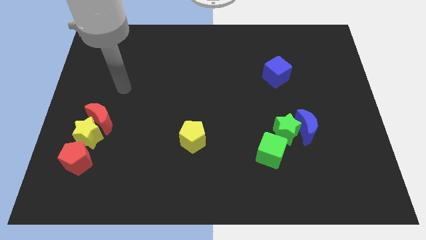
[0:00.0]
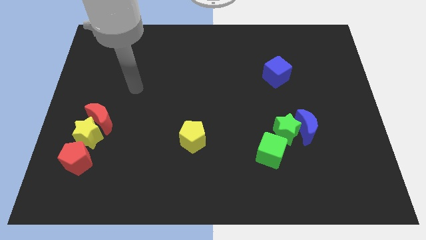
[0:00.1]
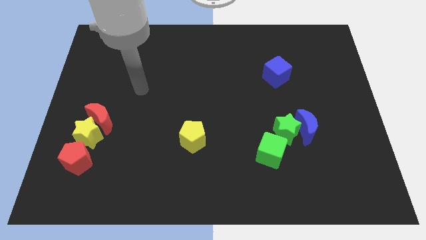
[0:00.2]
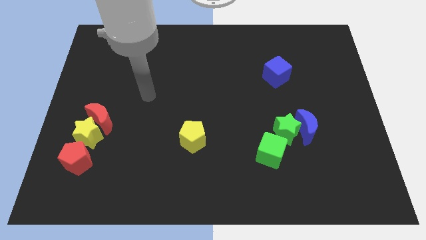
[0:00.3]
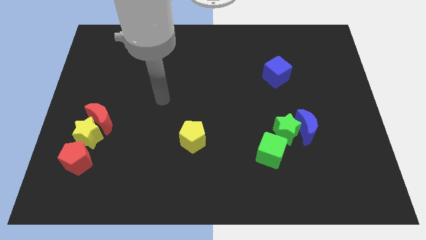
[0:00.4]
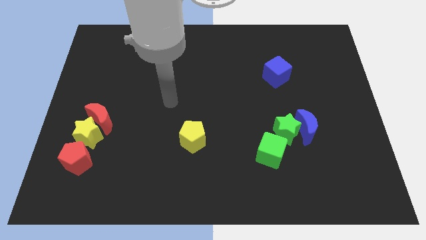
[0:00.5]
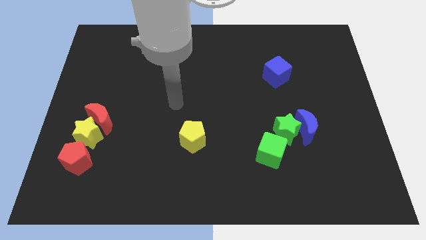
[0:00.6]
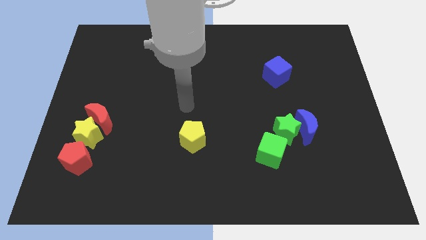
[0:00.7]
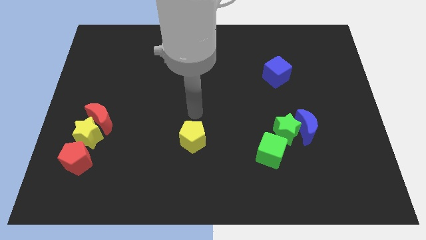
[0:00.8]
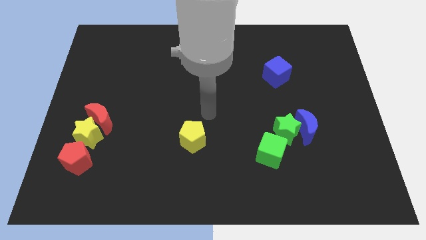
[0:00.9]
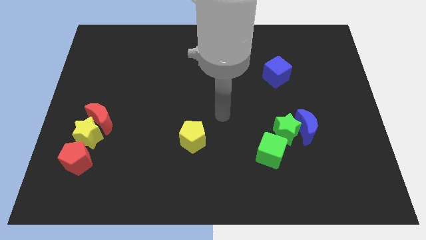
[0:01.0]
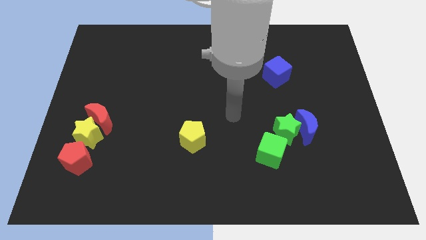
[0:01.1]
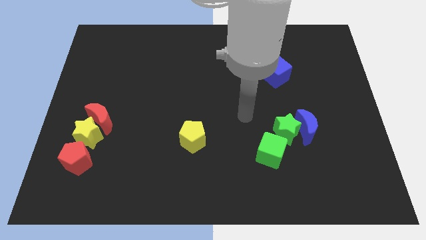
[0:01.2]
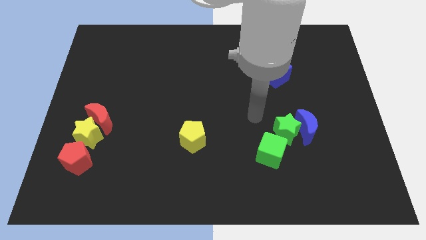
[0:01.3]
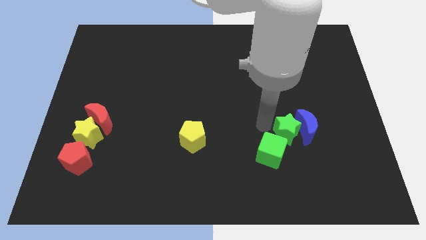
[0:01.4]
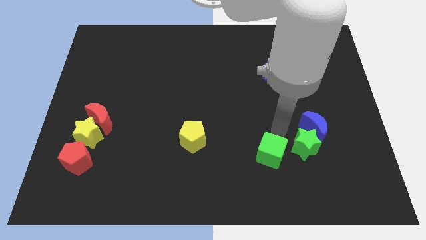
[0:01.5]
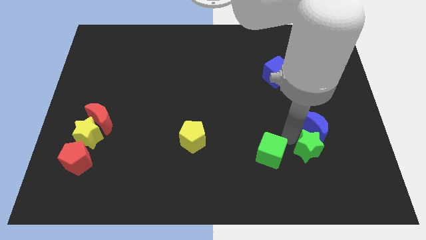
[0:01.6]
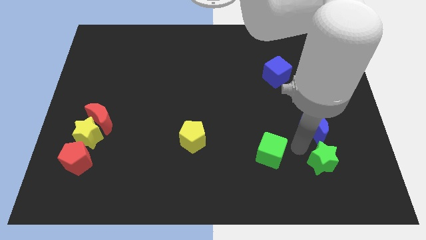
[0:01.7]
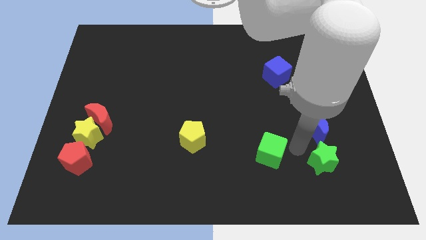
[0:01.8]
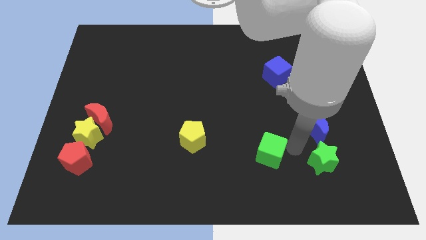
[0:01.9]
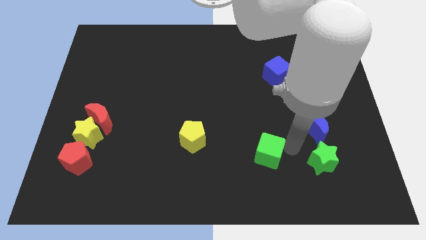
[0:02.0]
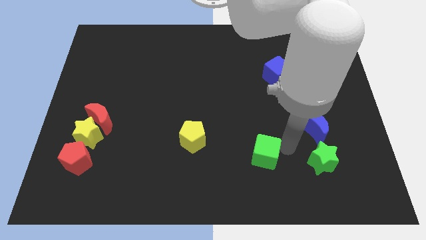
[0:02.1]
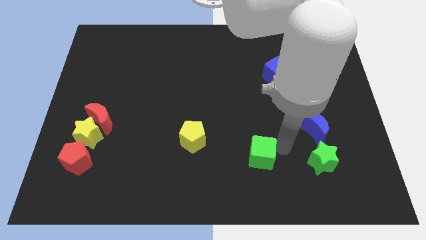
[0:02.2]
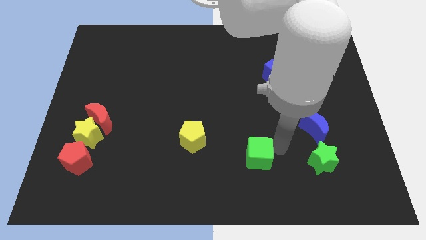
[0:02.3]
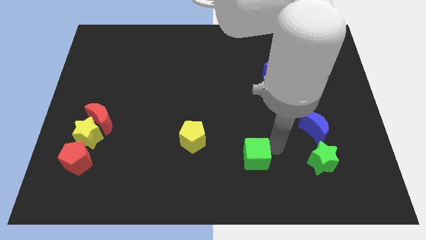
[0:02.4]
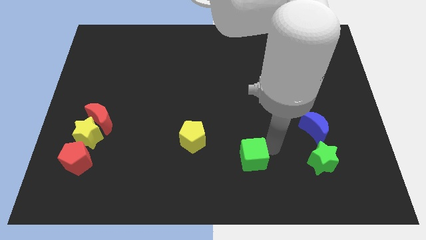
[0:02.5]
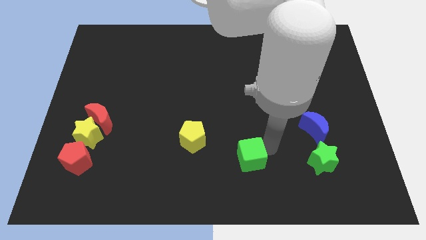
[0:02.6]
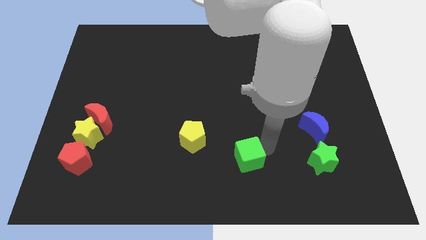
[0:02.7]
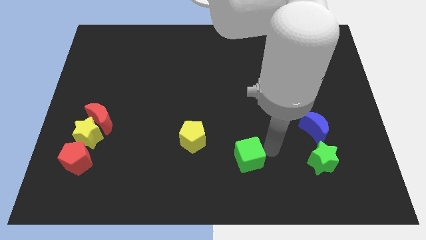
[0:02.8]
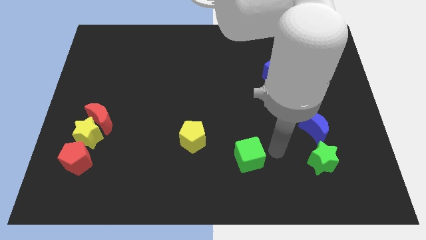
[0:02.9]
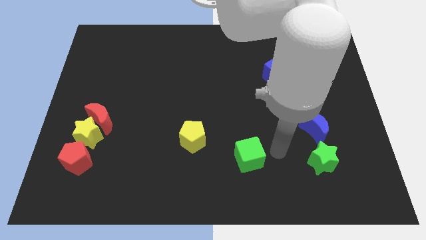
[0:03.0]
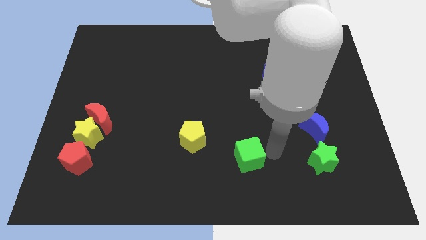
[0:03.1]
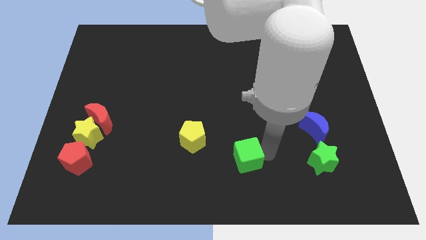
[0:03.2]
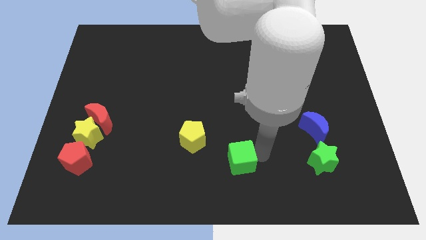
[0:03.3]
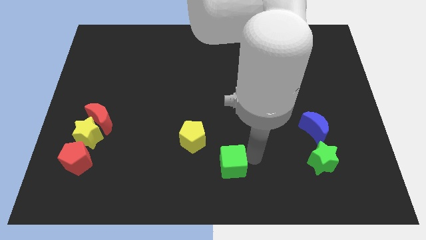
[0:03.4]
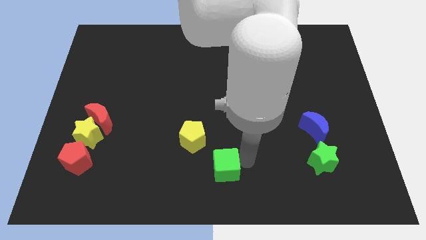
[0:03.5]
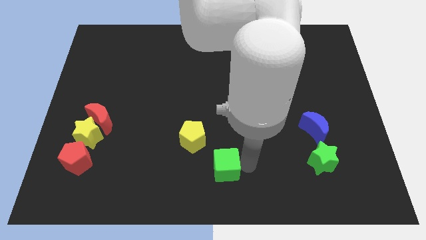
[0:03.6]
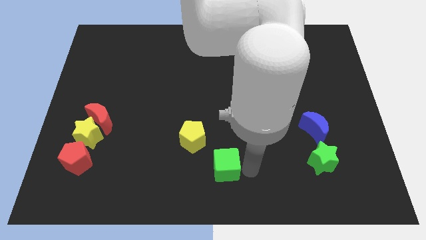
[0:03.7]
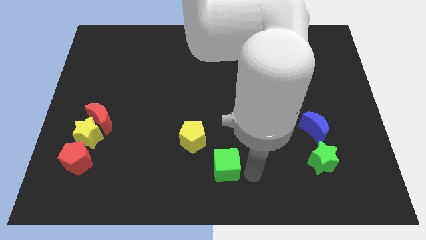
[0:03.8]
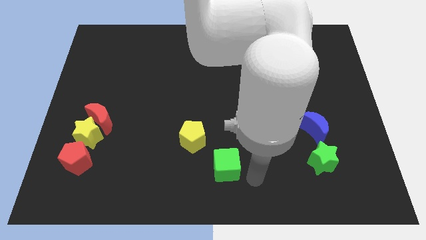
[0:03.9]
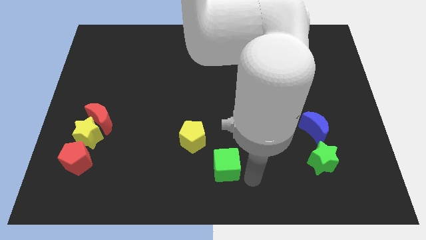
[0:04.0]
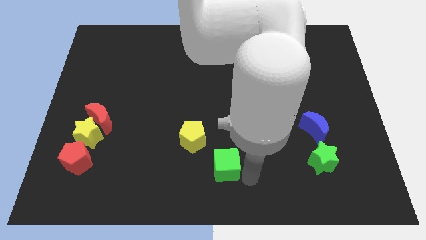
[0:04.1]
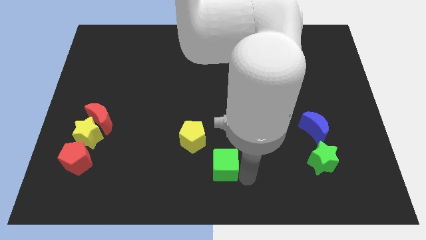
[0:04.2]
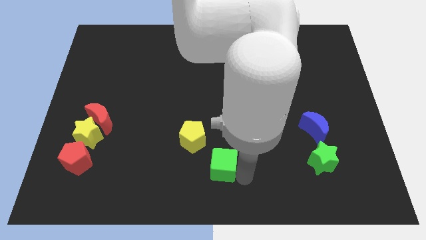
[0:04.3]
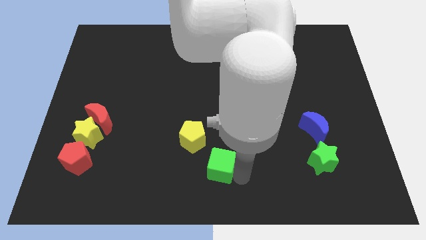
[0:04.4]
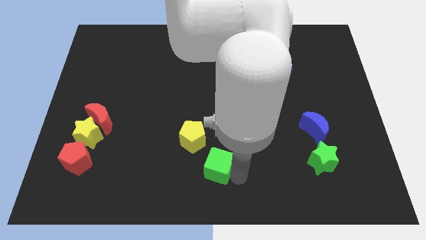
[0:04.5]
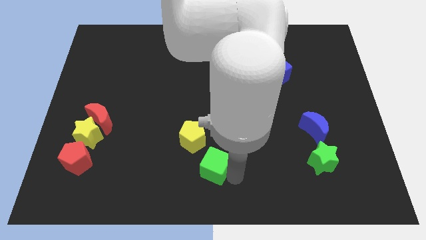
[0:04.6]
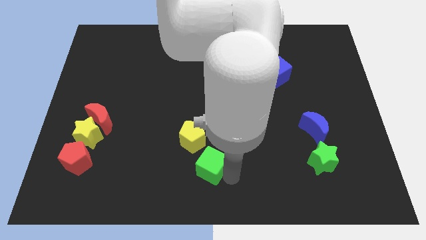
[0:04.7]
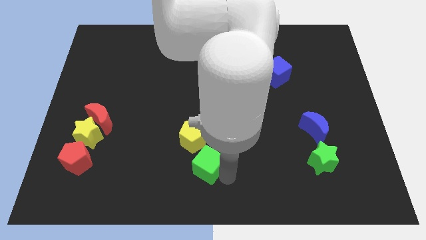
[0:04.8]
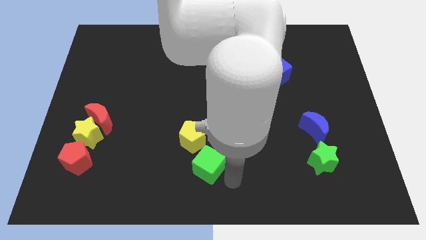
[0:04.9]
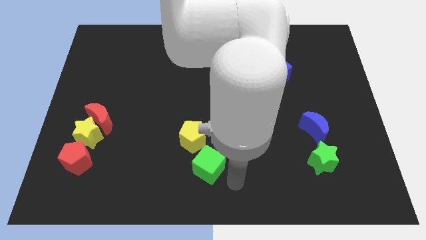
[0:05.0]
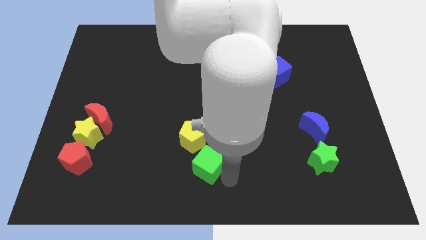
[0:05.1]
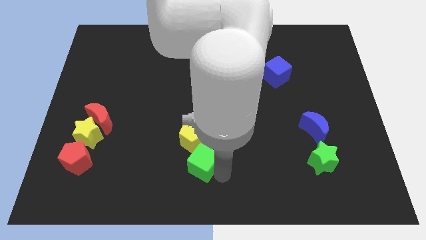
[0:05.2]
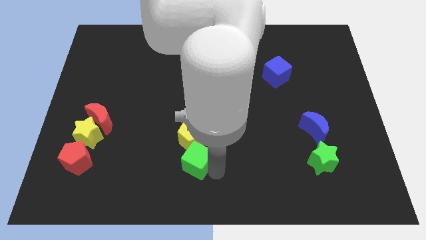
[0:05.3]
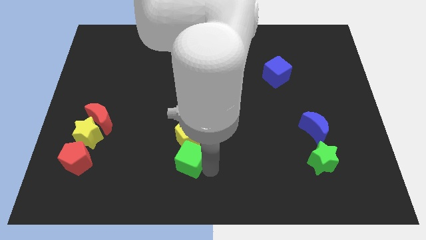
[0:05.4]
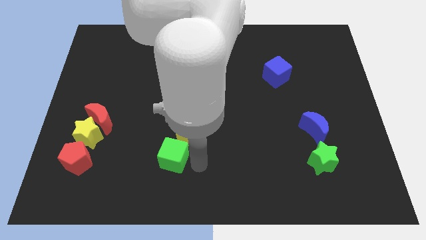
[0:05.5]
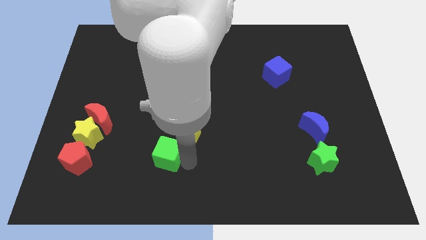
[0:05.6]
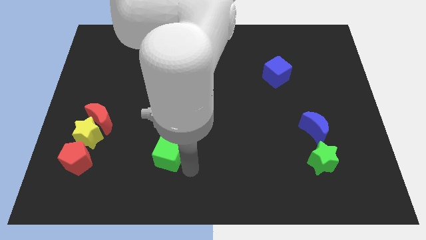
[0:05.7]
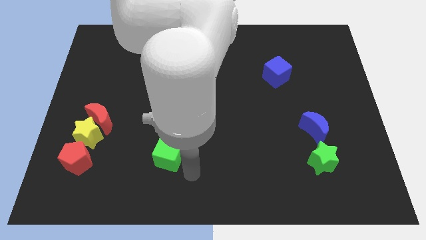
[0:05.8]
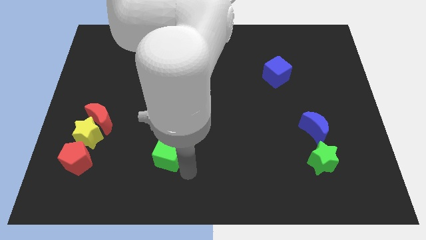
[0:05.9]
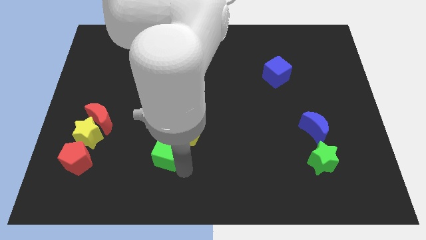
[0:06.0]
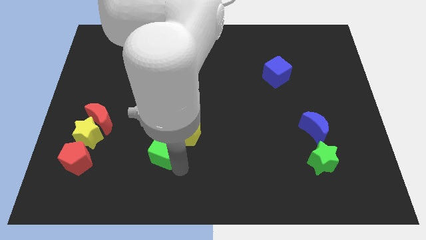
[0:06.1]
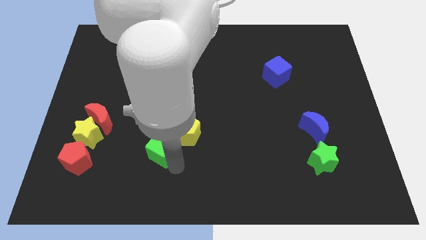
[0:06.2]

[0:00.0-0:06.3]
slide the green cube left of the yellow pentagon
